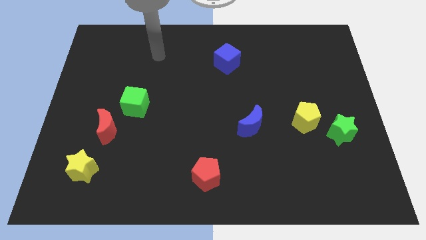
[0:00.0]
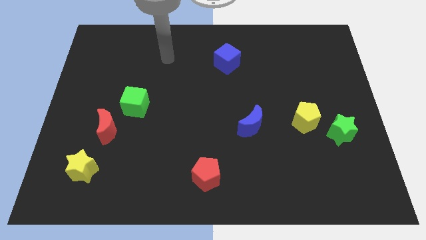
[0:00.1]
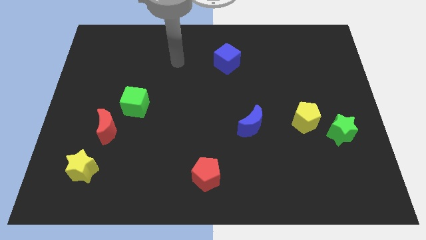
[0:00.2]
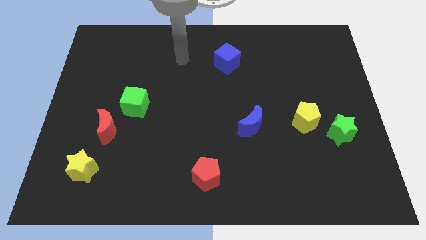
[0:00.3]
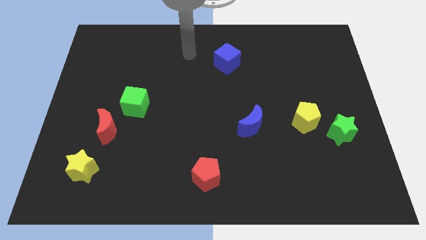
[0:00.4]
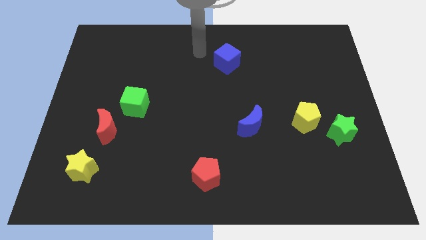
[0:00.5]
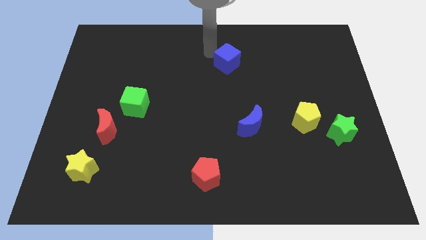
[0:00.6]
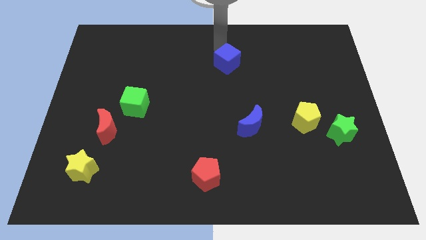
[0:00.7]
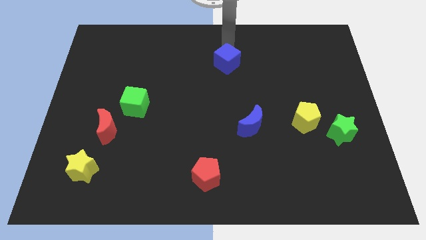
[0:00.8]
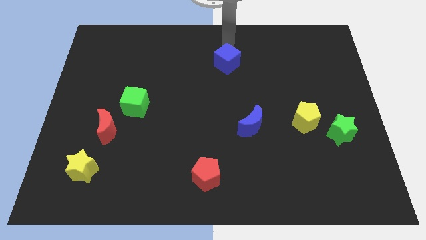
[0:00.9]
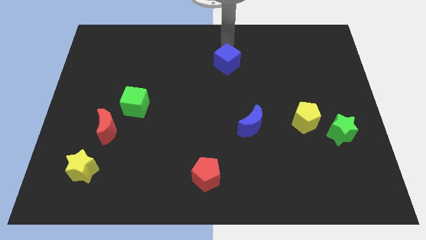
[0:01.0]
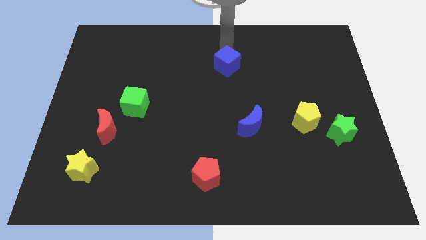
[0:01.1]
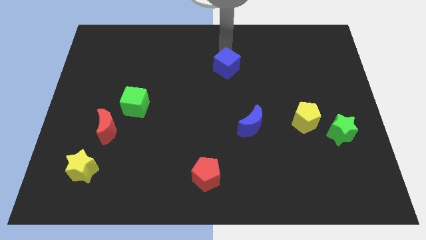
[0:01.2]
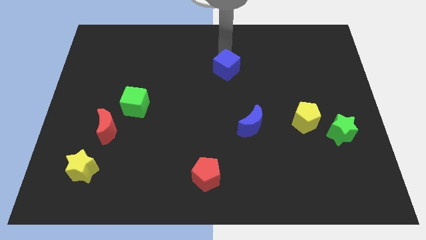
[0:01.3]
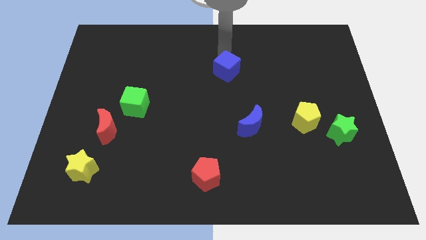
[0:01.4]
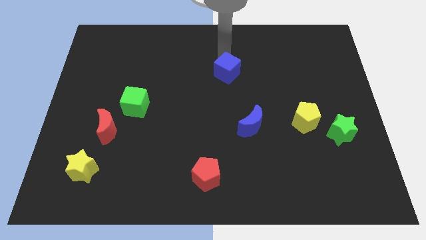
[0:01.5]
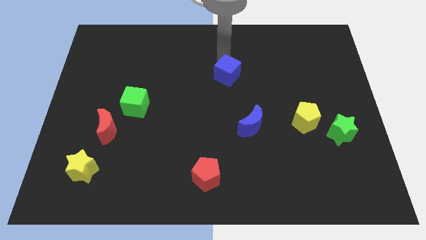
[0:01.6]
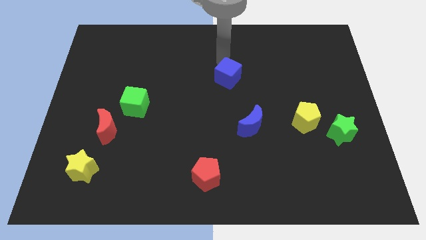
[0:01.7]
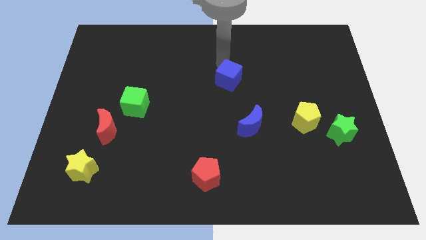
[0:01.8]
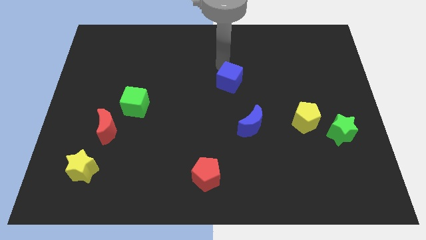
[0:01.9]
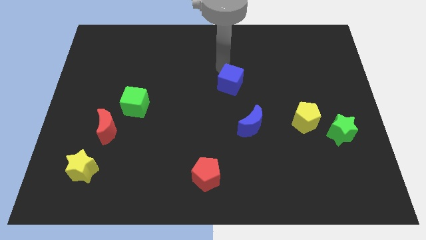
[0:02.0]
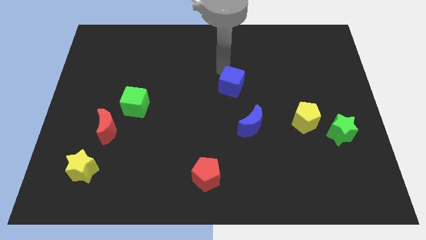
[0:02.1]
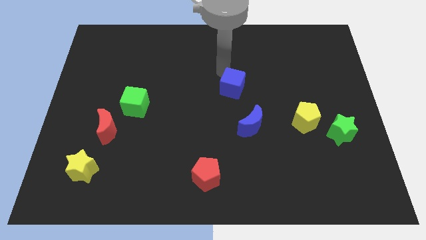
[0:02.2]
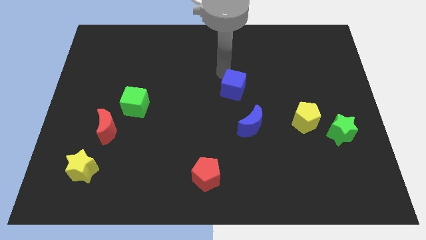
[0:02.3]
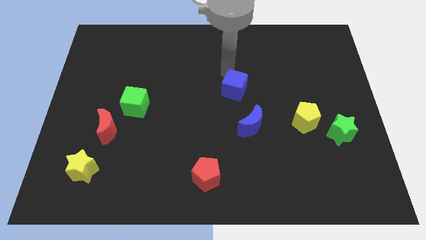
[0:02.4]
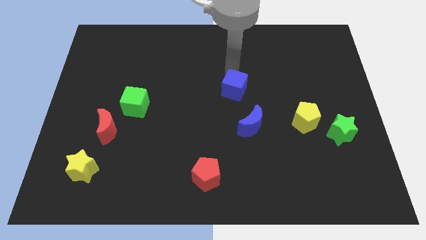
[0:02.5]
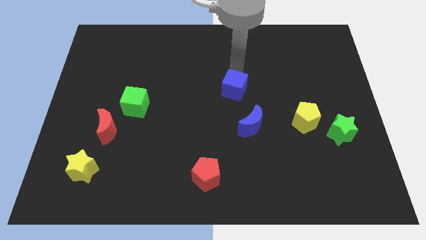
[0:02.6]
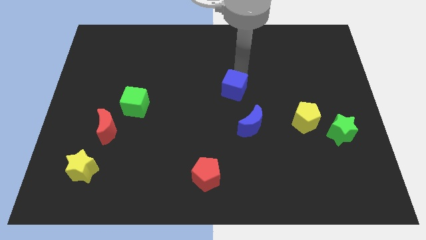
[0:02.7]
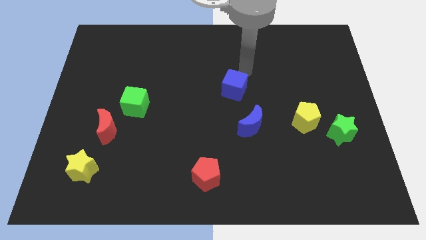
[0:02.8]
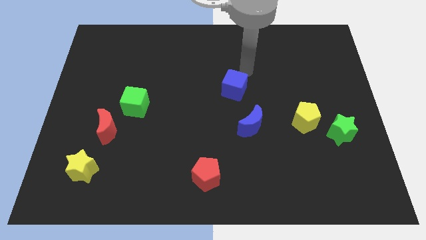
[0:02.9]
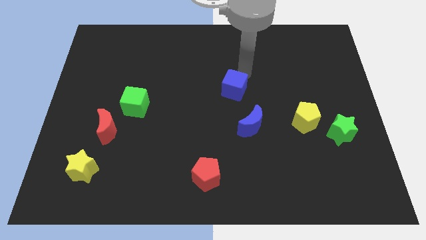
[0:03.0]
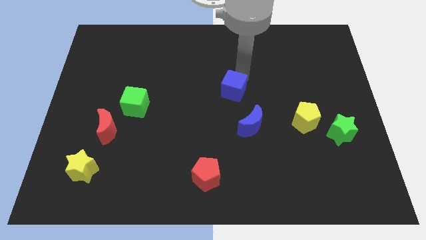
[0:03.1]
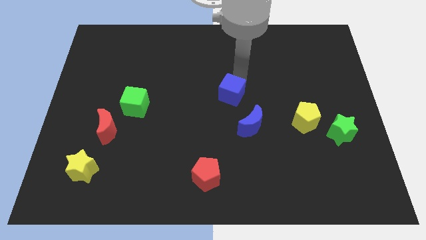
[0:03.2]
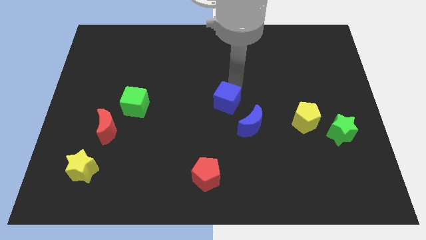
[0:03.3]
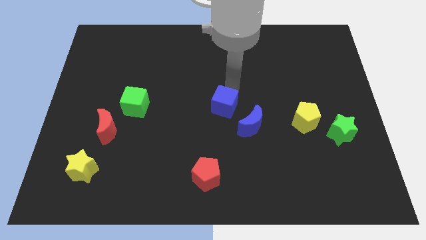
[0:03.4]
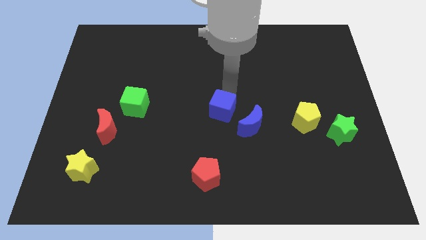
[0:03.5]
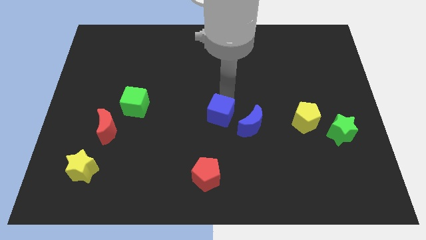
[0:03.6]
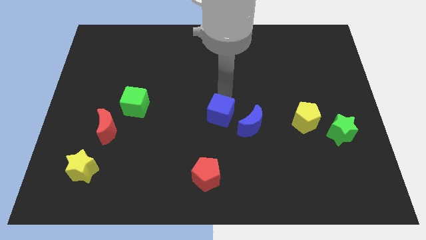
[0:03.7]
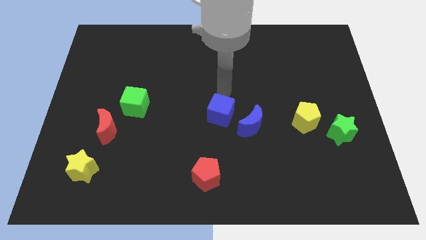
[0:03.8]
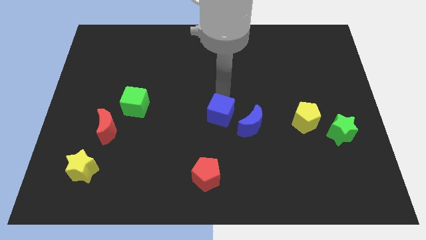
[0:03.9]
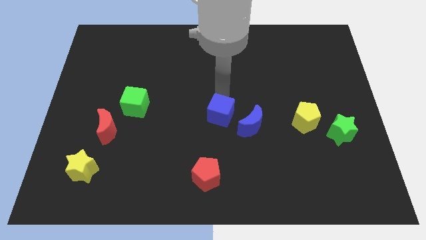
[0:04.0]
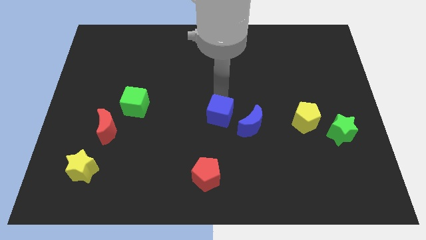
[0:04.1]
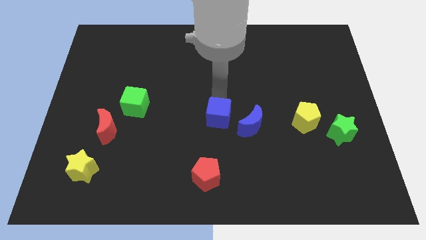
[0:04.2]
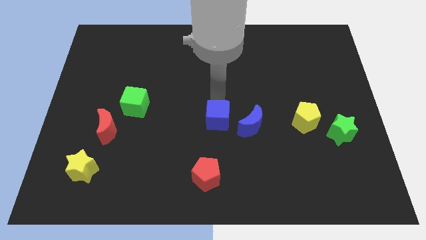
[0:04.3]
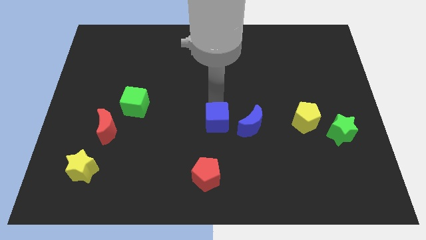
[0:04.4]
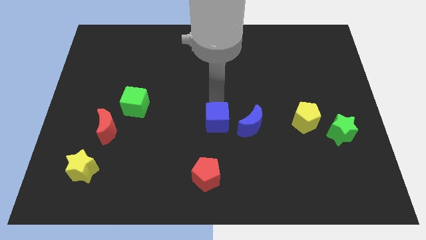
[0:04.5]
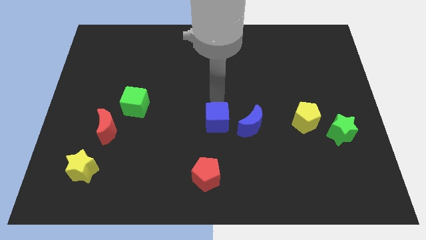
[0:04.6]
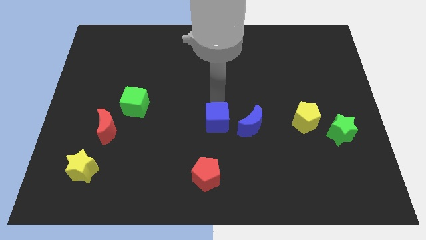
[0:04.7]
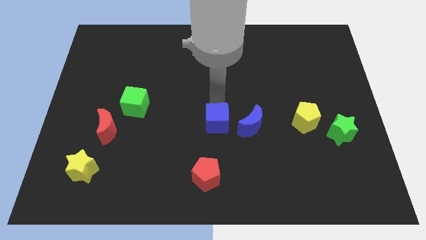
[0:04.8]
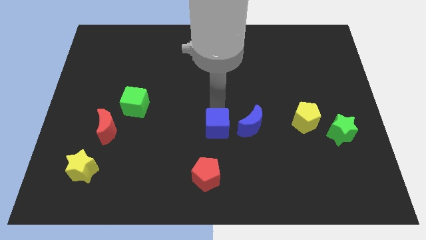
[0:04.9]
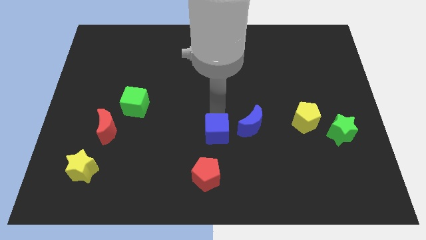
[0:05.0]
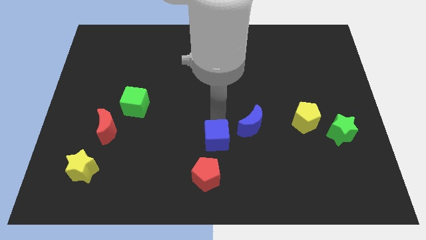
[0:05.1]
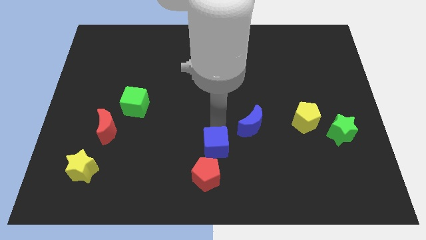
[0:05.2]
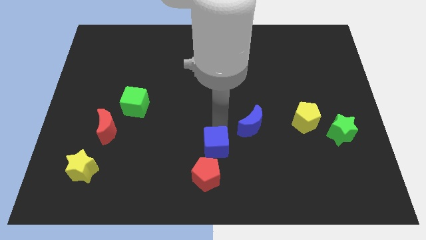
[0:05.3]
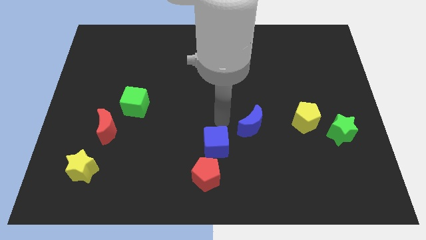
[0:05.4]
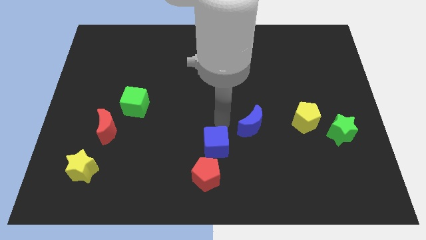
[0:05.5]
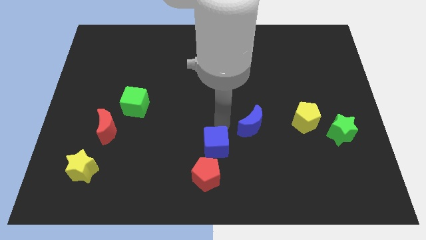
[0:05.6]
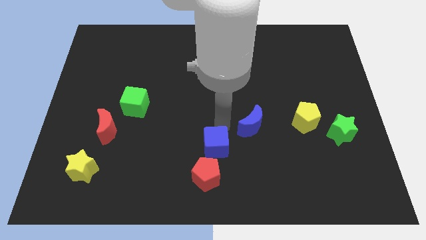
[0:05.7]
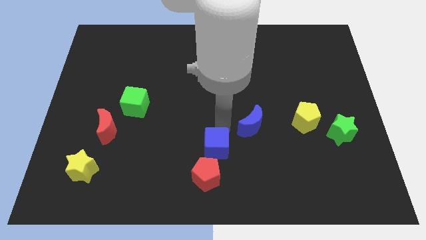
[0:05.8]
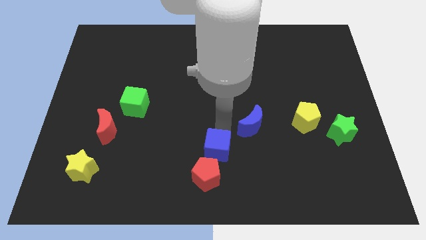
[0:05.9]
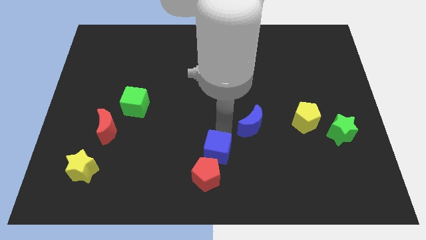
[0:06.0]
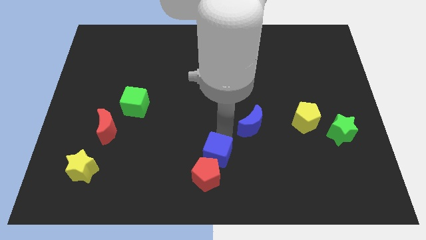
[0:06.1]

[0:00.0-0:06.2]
slide the blue cube next to the red pentagon

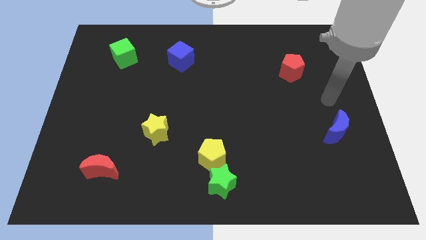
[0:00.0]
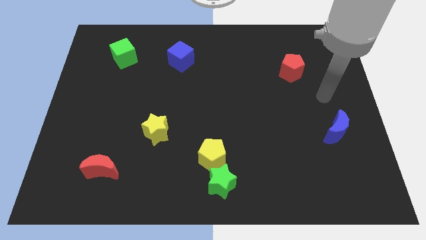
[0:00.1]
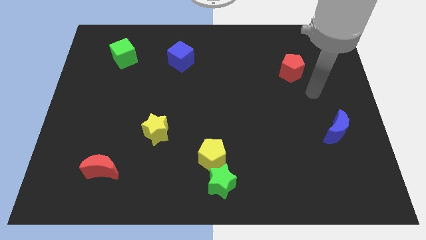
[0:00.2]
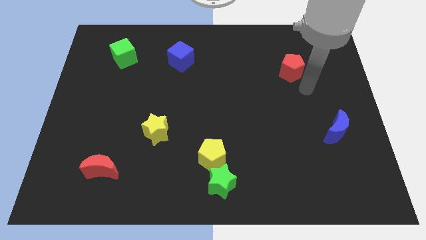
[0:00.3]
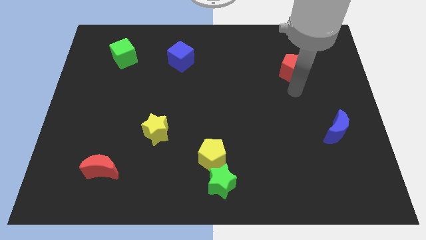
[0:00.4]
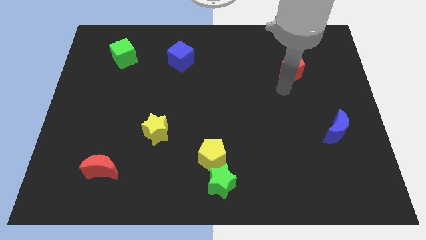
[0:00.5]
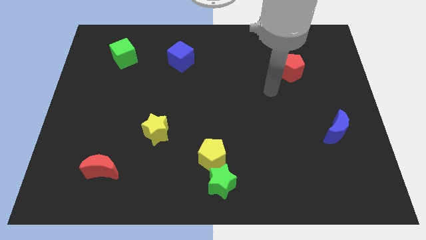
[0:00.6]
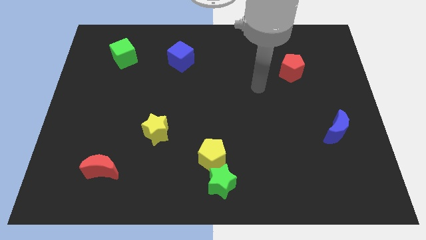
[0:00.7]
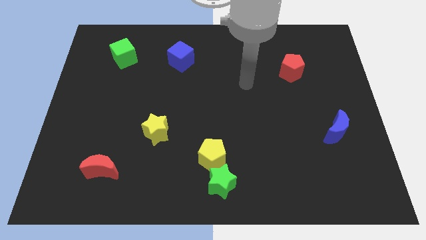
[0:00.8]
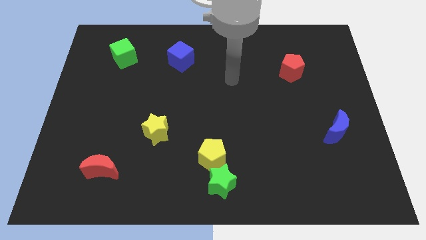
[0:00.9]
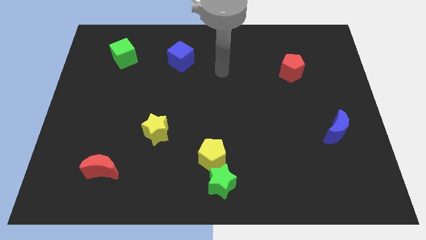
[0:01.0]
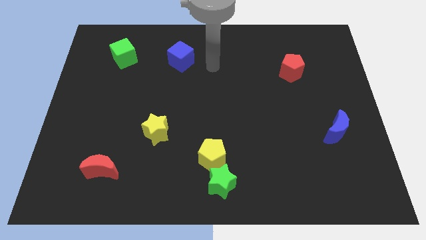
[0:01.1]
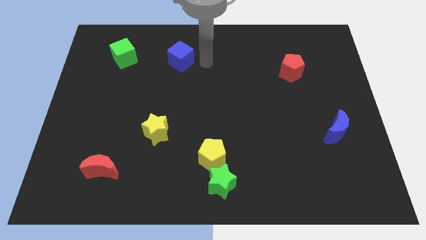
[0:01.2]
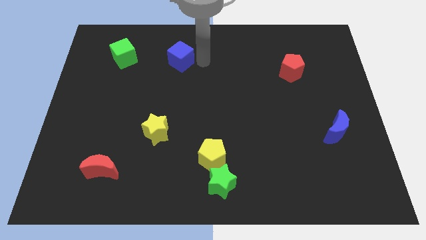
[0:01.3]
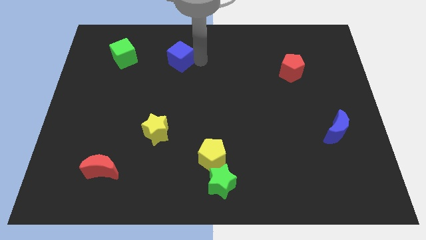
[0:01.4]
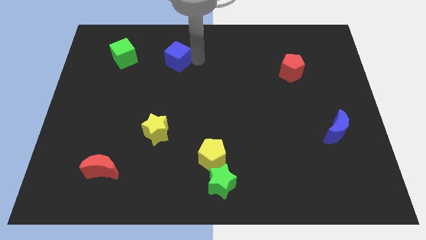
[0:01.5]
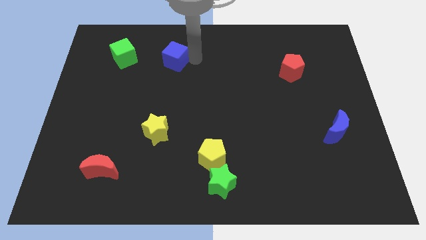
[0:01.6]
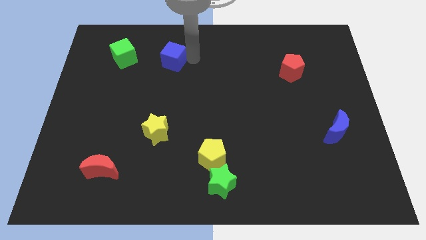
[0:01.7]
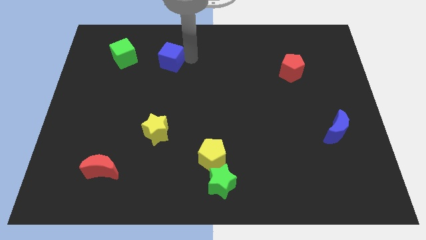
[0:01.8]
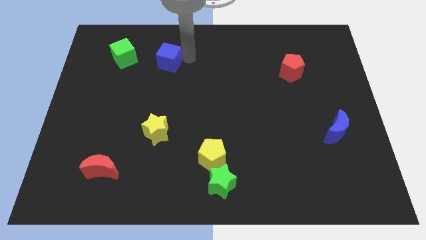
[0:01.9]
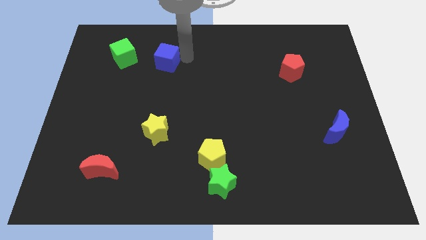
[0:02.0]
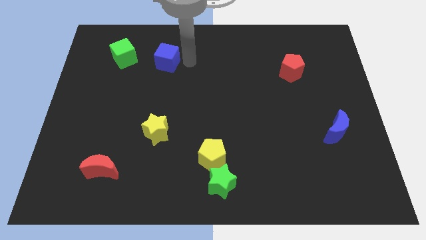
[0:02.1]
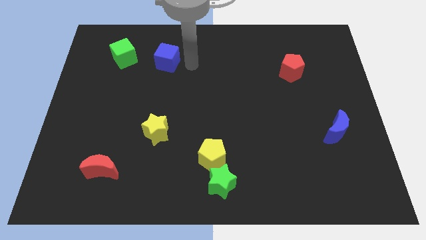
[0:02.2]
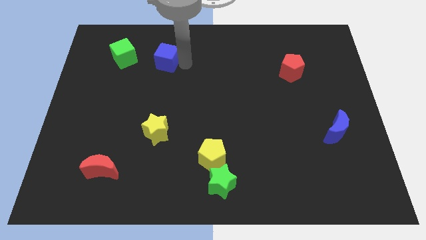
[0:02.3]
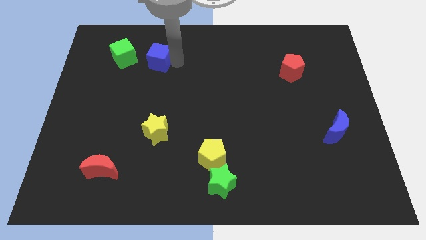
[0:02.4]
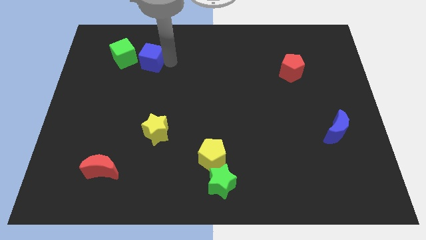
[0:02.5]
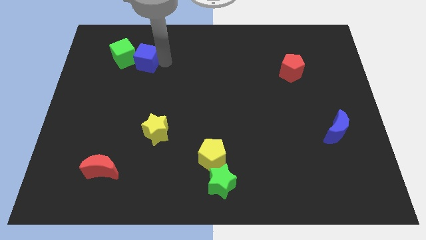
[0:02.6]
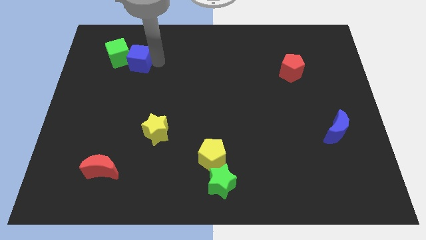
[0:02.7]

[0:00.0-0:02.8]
slide the blue cube towards the green cube
